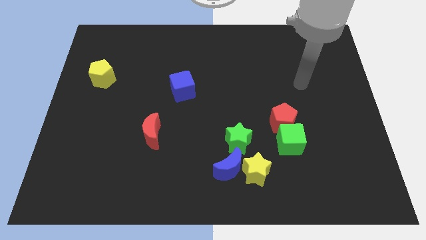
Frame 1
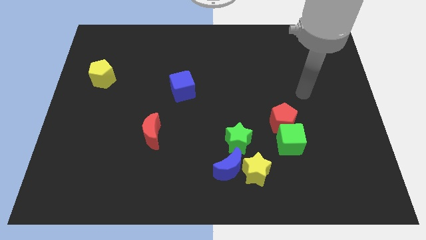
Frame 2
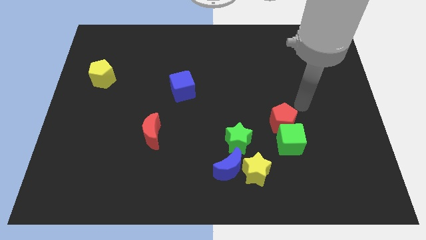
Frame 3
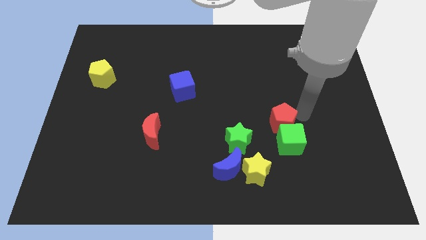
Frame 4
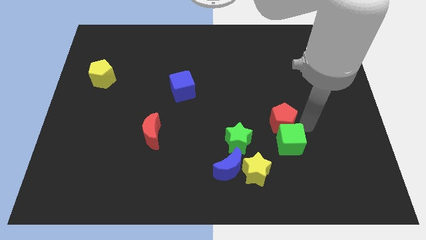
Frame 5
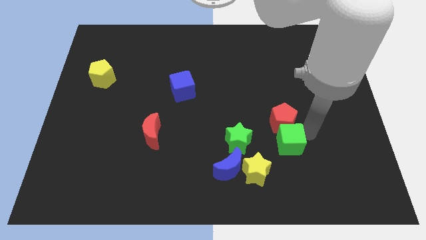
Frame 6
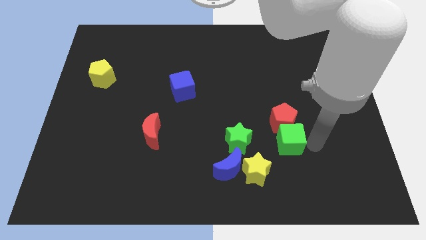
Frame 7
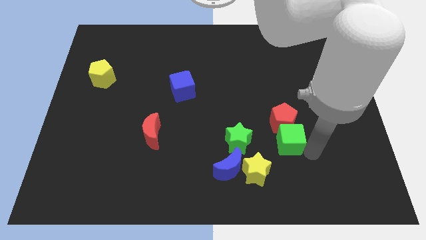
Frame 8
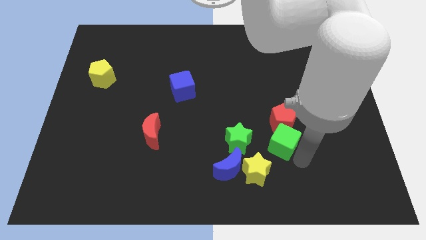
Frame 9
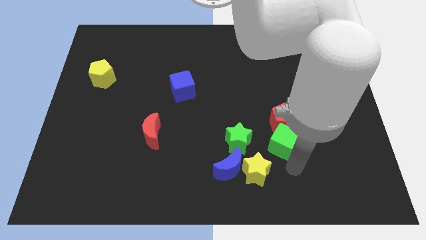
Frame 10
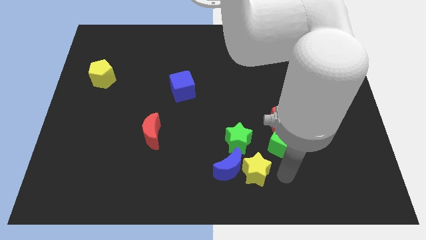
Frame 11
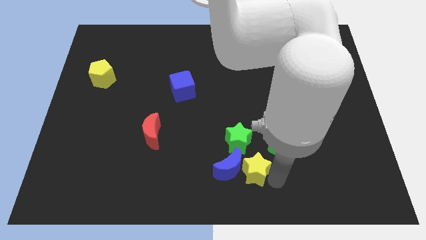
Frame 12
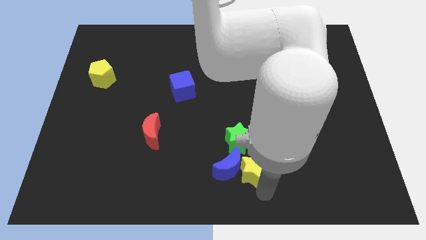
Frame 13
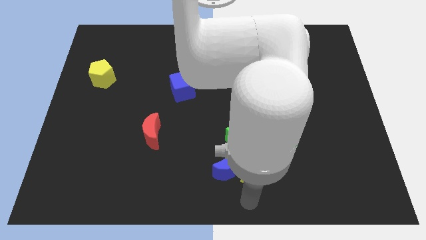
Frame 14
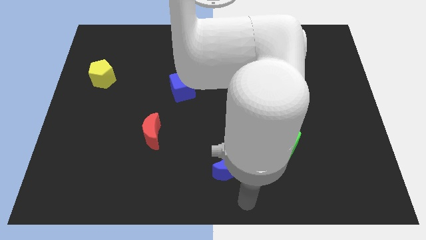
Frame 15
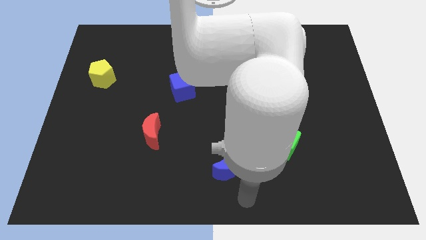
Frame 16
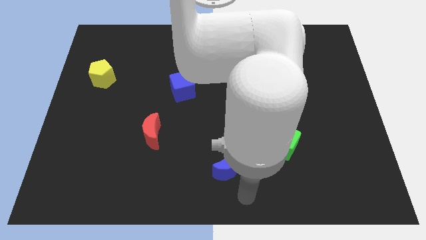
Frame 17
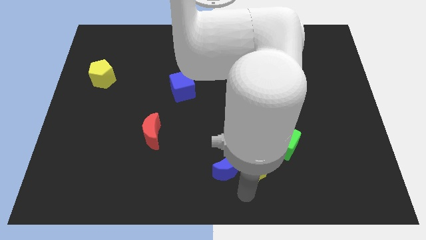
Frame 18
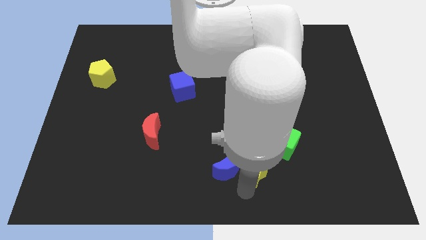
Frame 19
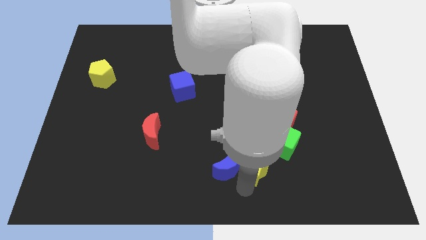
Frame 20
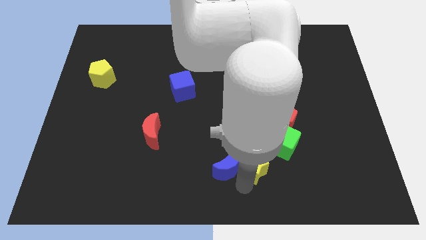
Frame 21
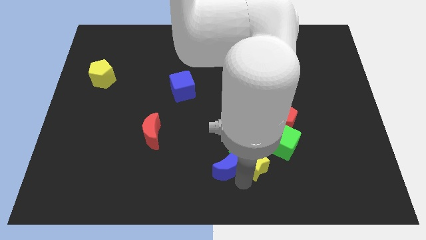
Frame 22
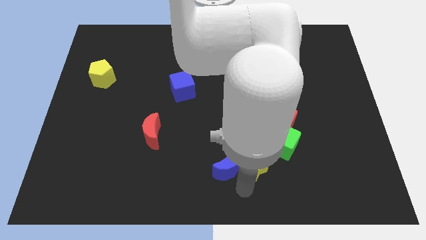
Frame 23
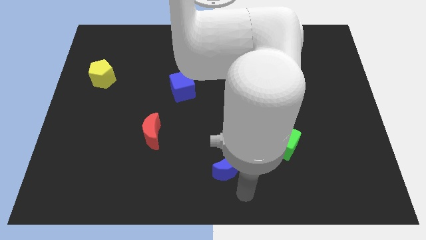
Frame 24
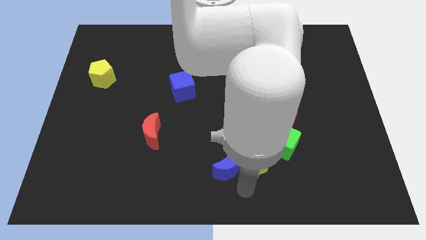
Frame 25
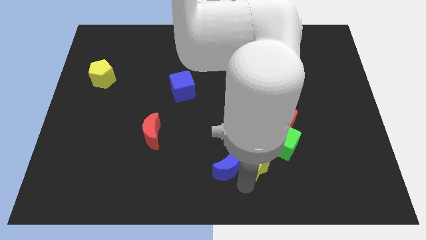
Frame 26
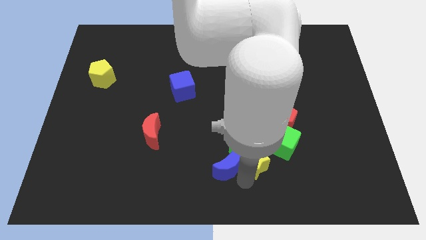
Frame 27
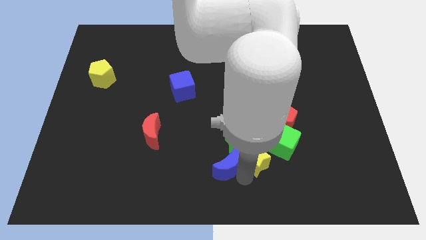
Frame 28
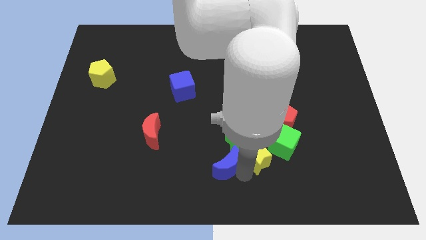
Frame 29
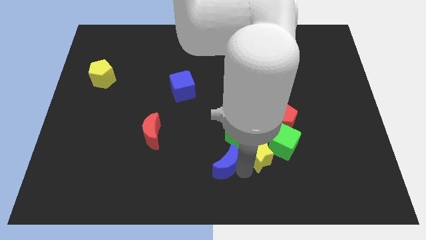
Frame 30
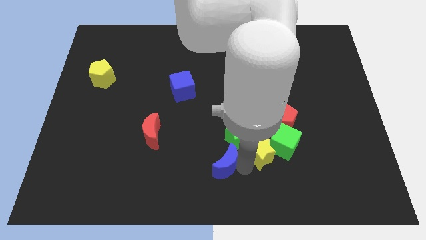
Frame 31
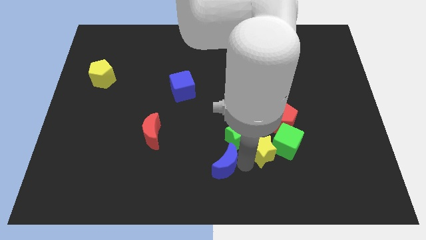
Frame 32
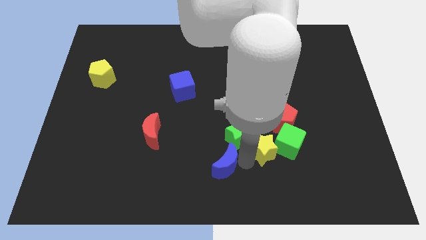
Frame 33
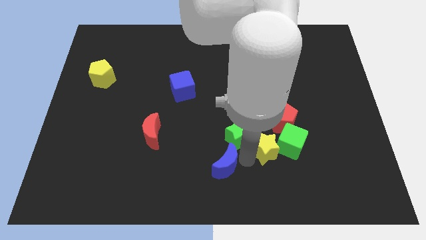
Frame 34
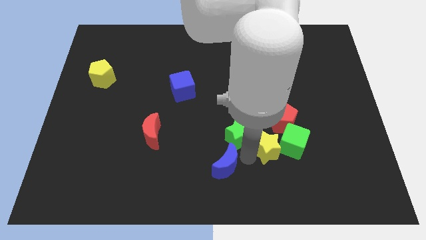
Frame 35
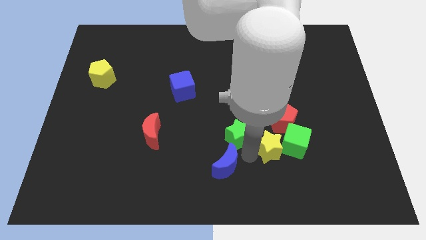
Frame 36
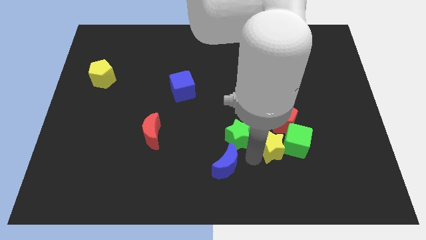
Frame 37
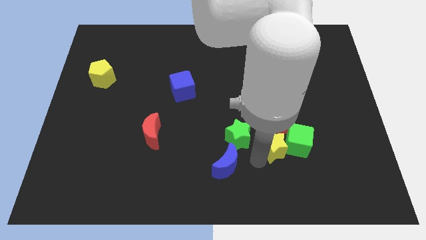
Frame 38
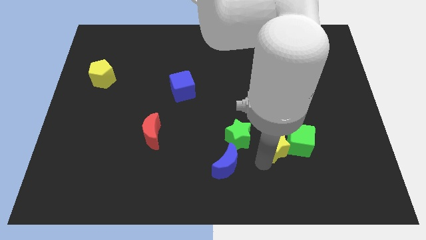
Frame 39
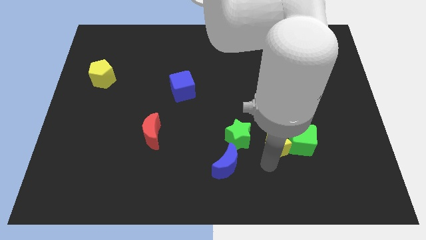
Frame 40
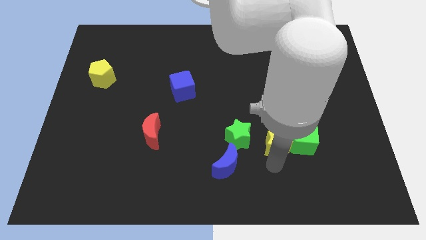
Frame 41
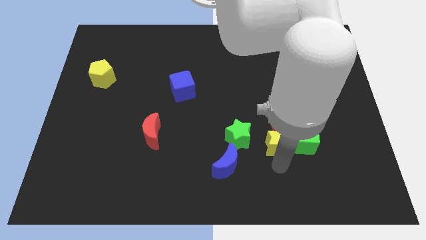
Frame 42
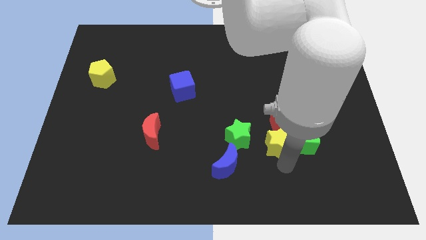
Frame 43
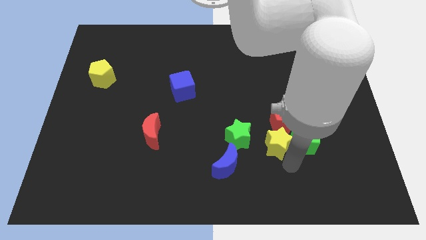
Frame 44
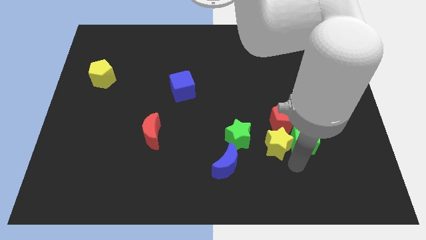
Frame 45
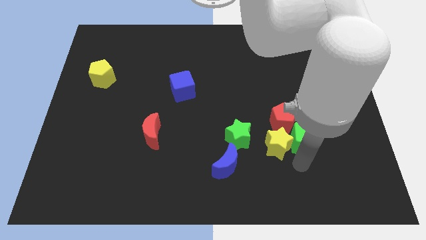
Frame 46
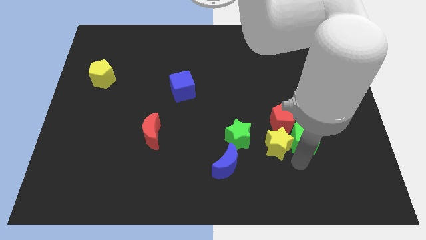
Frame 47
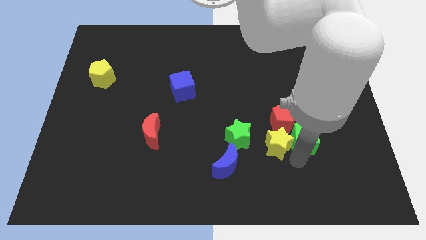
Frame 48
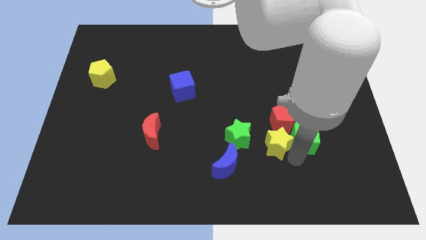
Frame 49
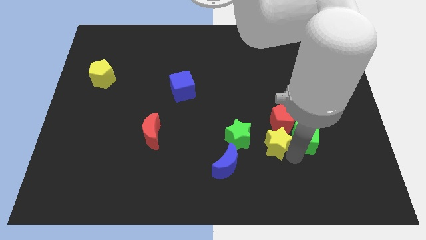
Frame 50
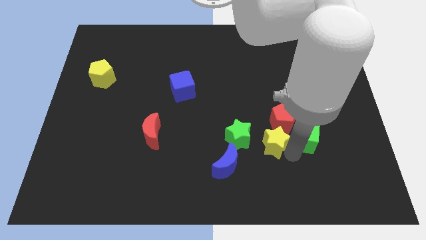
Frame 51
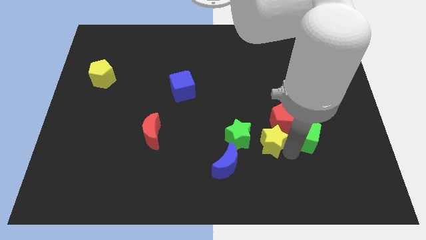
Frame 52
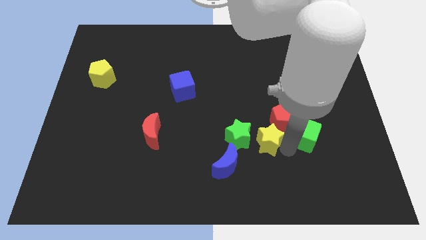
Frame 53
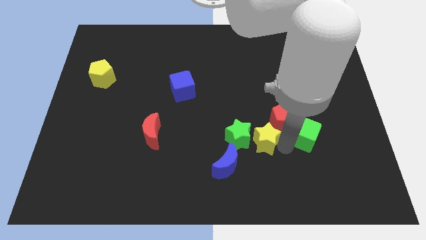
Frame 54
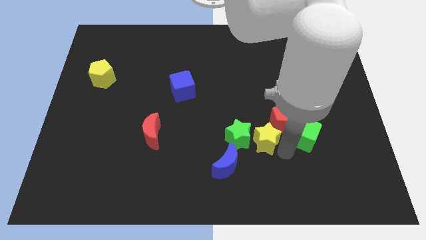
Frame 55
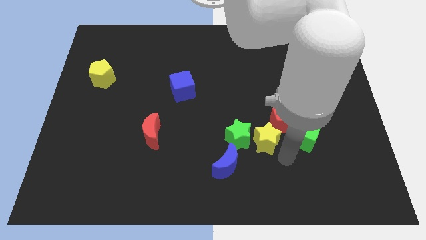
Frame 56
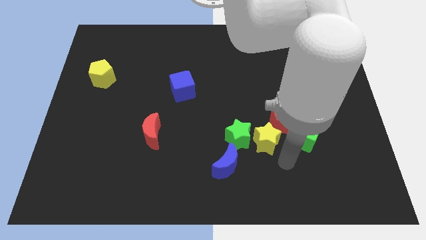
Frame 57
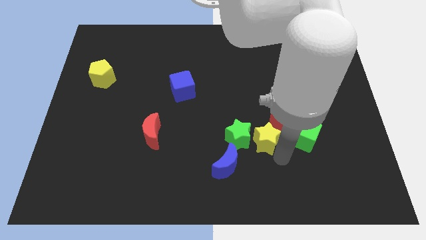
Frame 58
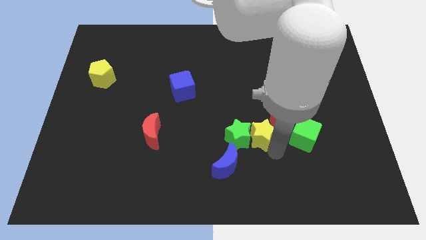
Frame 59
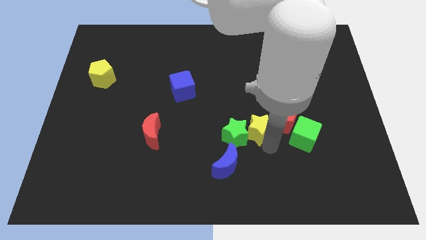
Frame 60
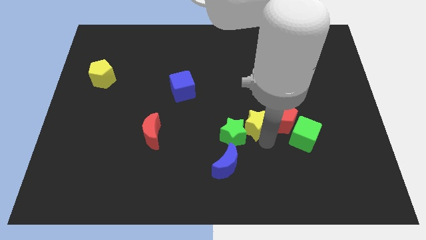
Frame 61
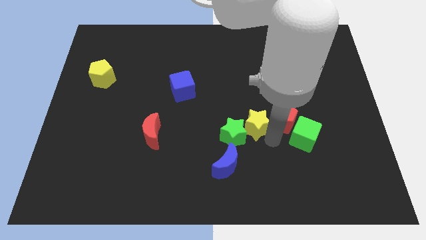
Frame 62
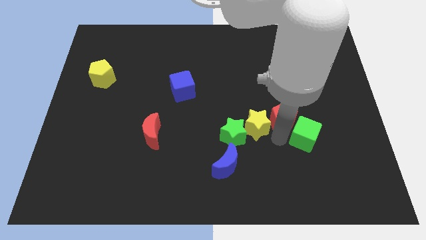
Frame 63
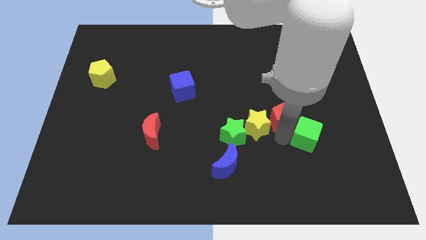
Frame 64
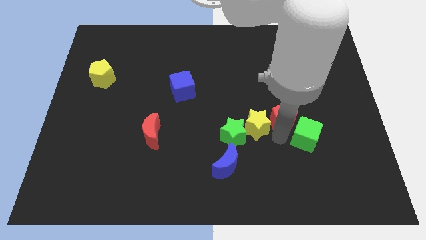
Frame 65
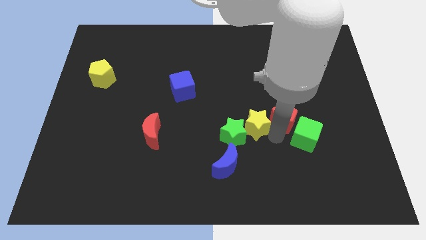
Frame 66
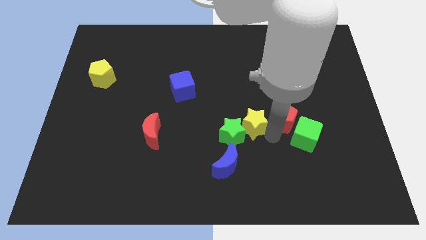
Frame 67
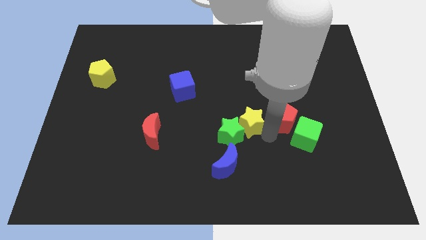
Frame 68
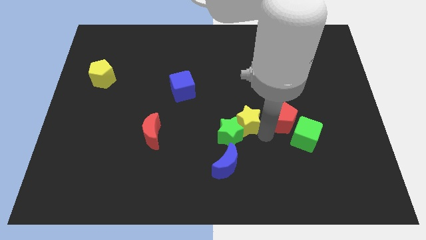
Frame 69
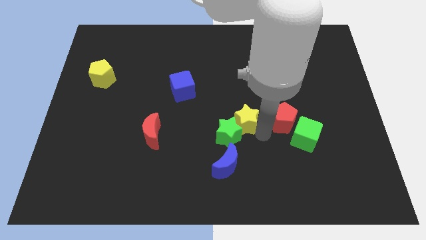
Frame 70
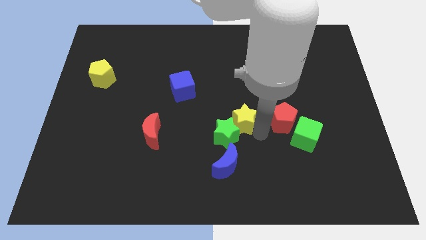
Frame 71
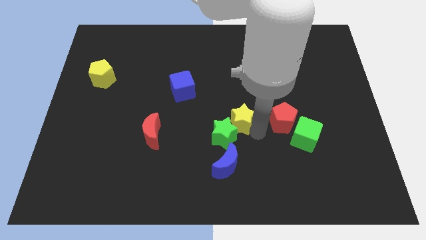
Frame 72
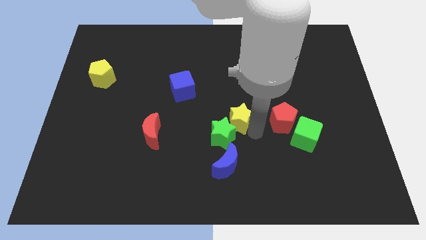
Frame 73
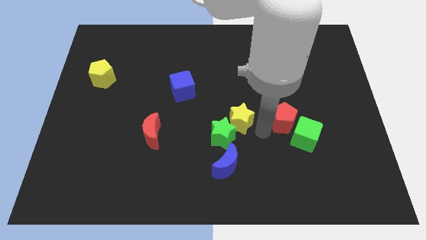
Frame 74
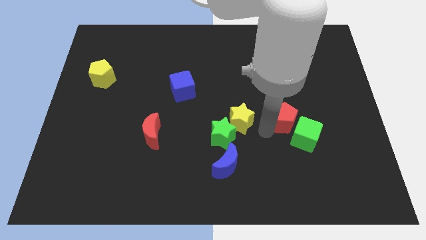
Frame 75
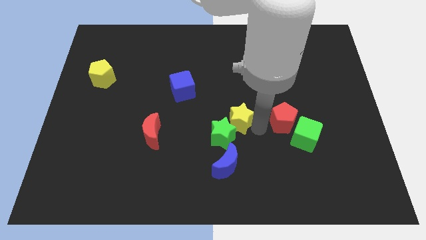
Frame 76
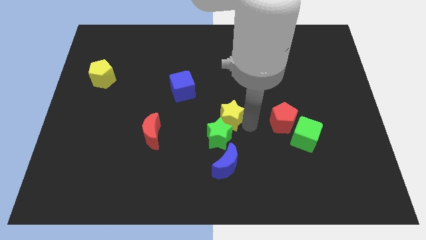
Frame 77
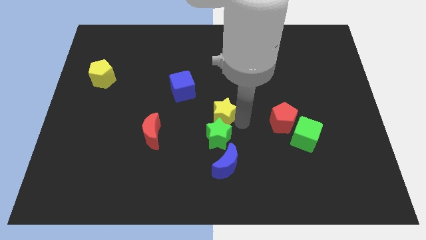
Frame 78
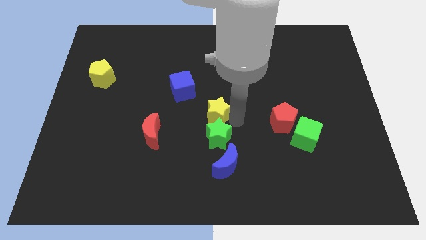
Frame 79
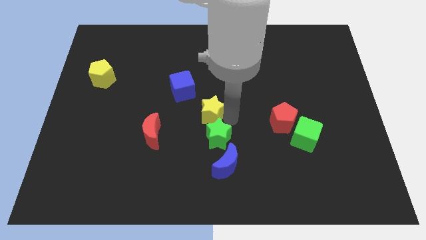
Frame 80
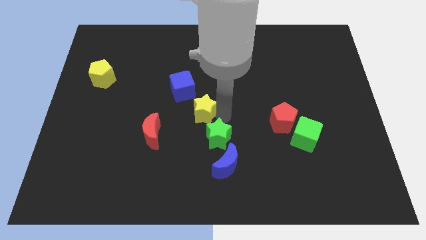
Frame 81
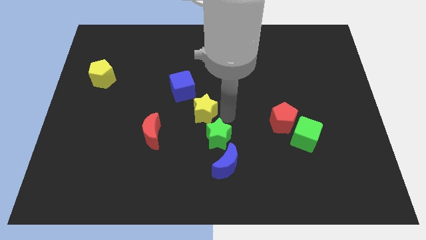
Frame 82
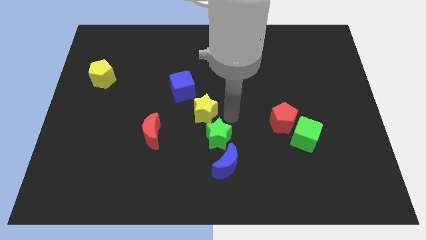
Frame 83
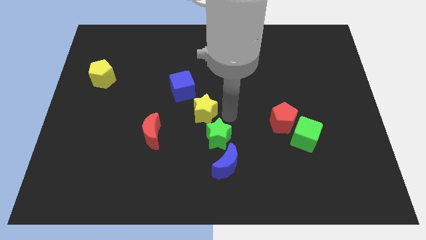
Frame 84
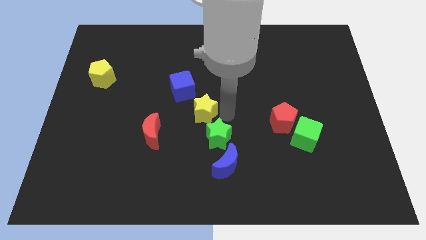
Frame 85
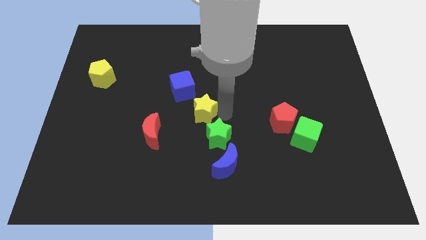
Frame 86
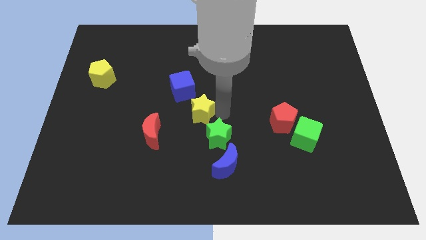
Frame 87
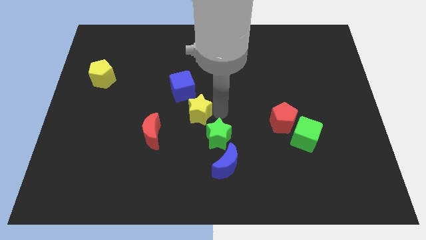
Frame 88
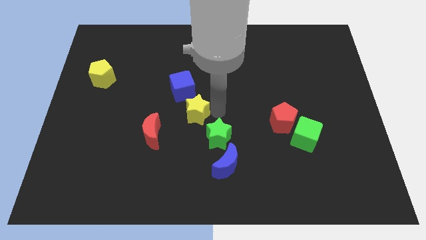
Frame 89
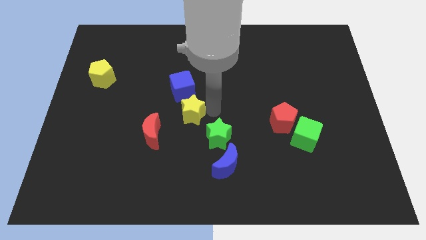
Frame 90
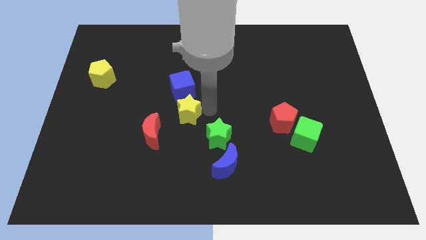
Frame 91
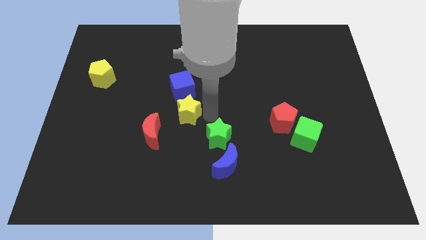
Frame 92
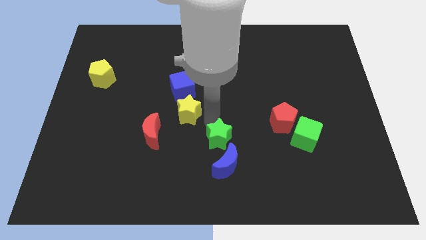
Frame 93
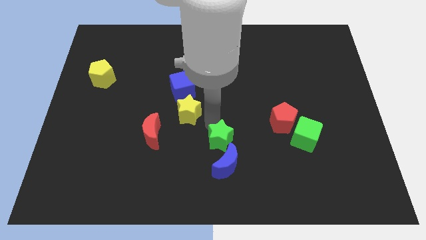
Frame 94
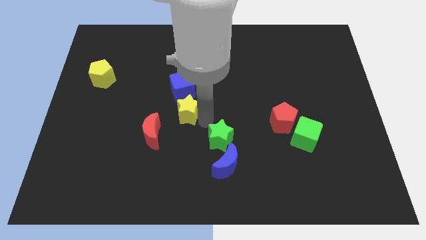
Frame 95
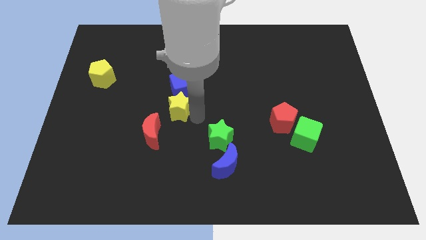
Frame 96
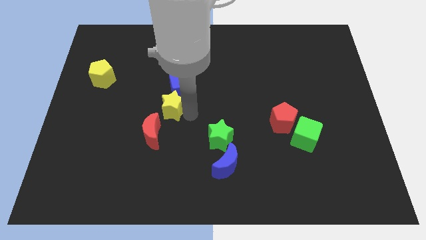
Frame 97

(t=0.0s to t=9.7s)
move the yellow star to the top side of the red moon
